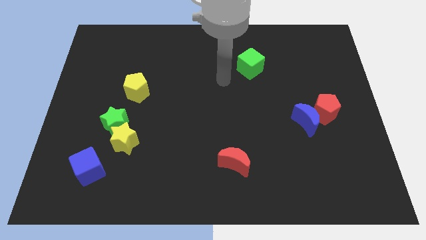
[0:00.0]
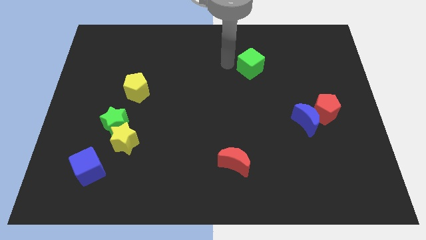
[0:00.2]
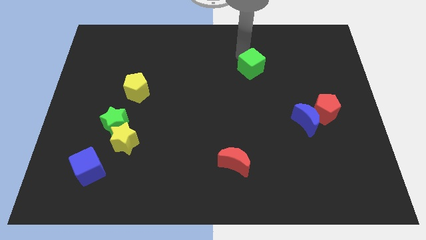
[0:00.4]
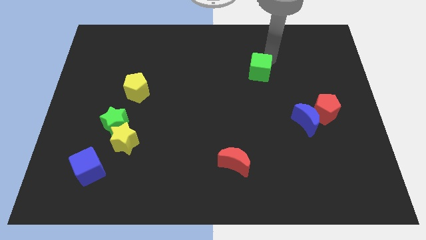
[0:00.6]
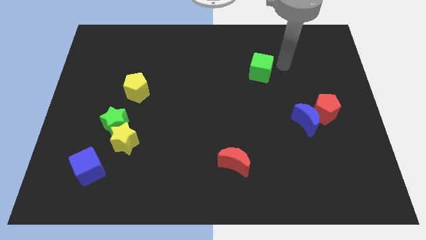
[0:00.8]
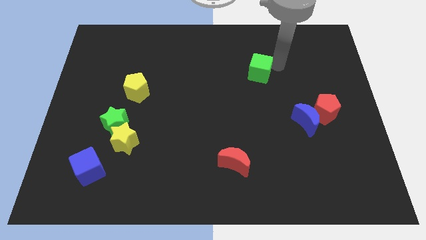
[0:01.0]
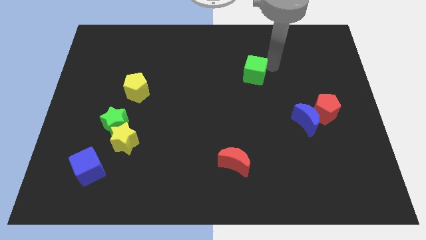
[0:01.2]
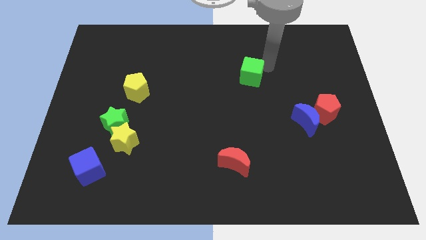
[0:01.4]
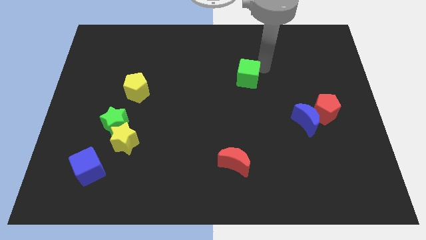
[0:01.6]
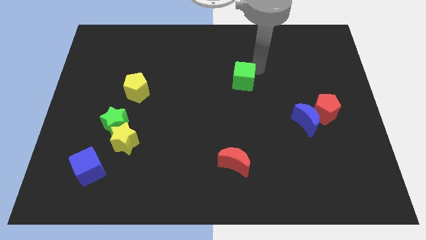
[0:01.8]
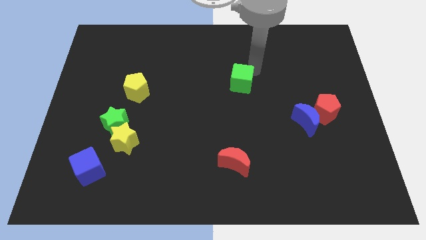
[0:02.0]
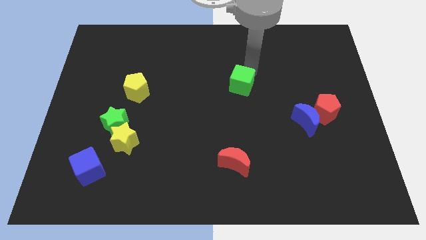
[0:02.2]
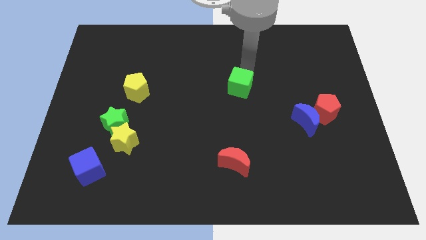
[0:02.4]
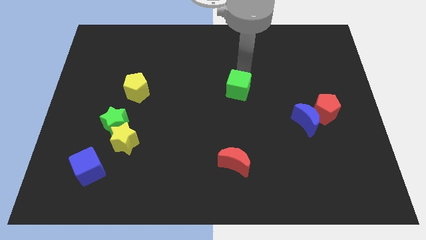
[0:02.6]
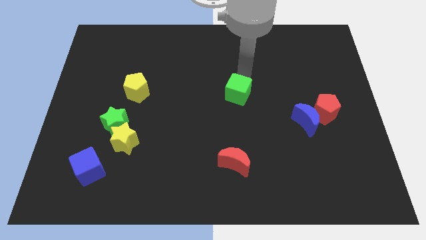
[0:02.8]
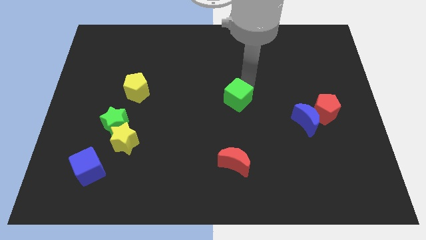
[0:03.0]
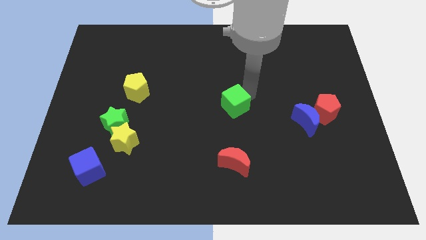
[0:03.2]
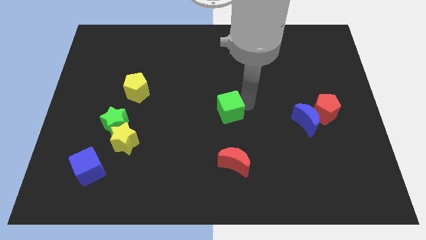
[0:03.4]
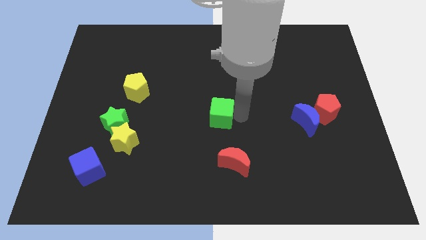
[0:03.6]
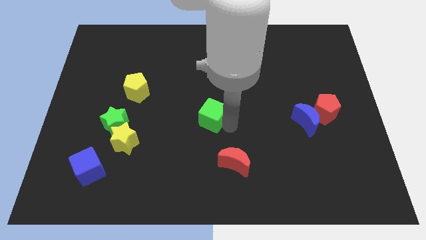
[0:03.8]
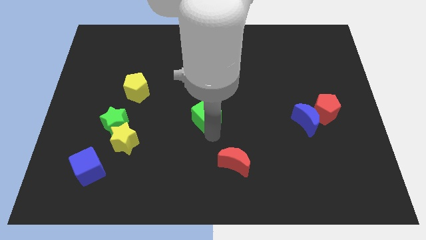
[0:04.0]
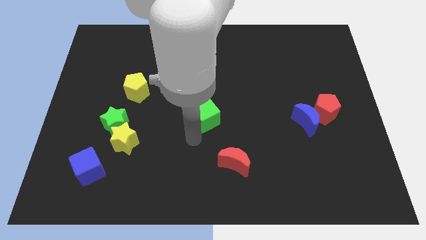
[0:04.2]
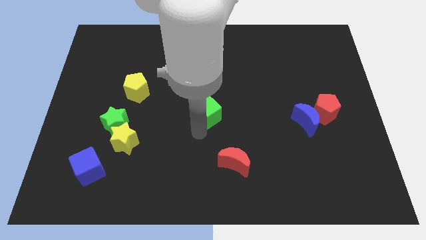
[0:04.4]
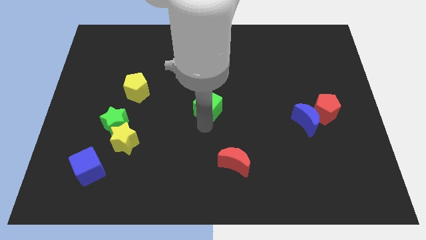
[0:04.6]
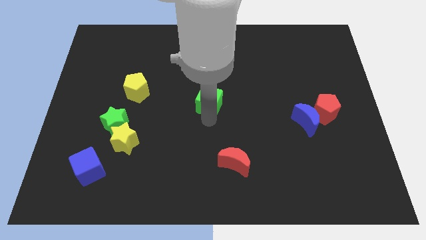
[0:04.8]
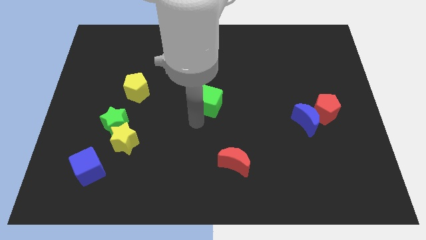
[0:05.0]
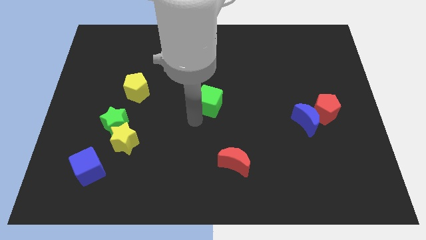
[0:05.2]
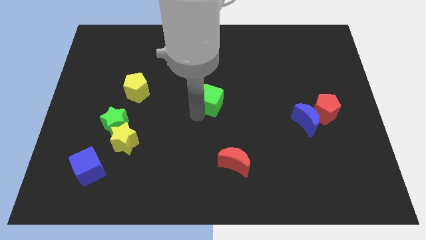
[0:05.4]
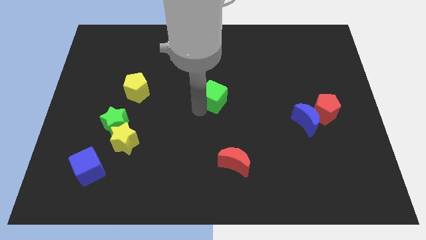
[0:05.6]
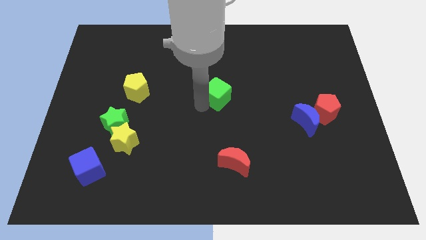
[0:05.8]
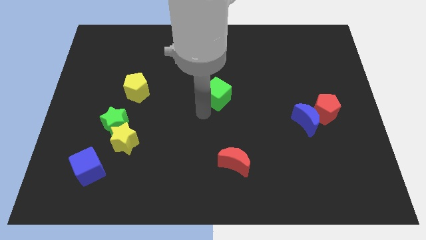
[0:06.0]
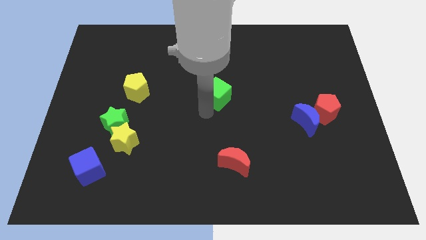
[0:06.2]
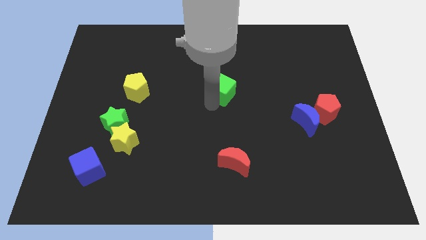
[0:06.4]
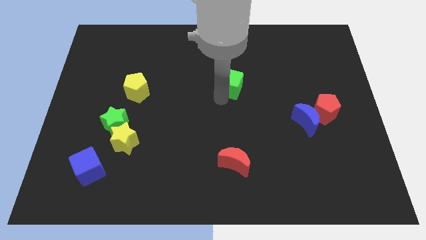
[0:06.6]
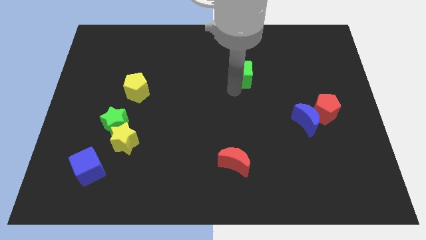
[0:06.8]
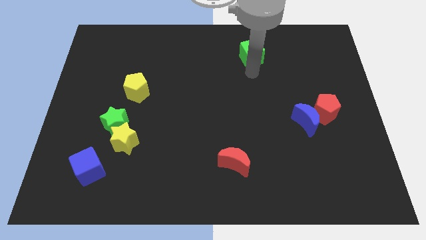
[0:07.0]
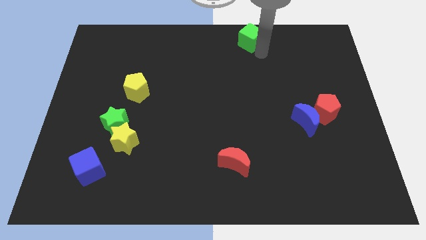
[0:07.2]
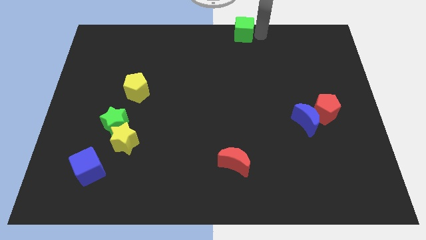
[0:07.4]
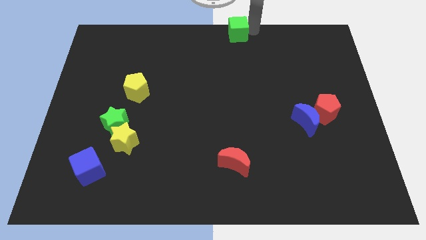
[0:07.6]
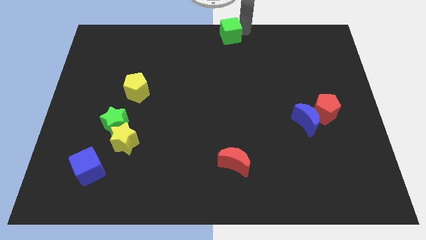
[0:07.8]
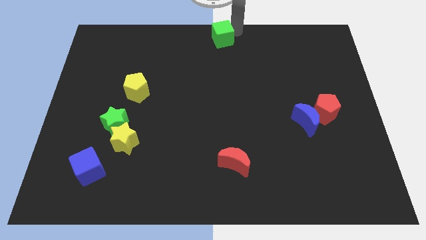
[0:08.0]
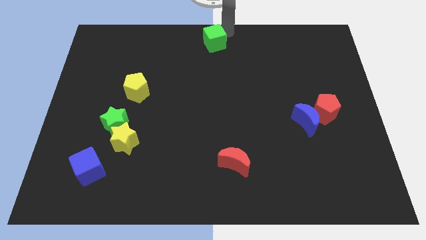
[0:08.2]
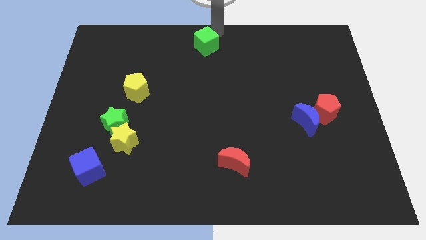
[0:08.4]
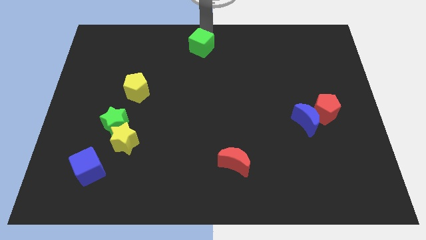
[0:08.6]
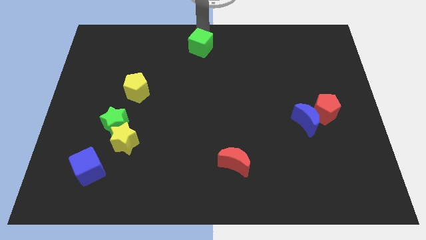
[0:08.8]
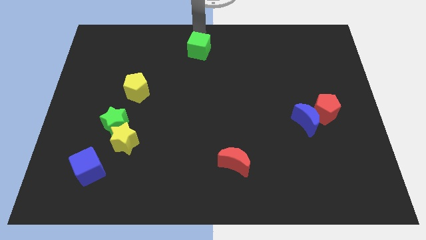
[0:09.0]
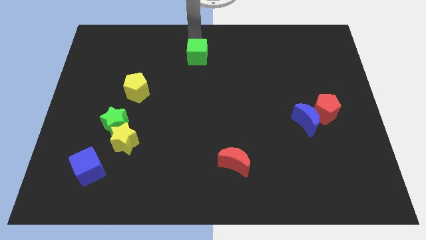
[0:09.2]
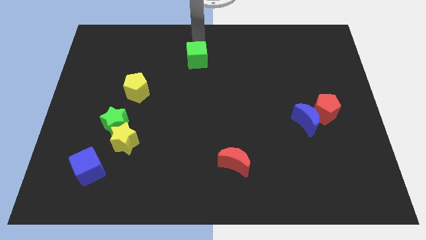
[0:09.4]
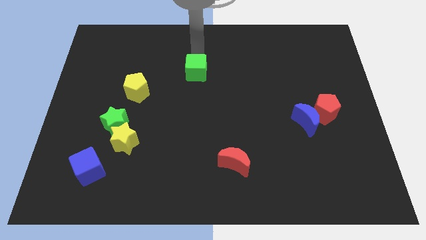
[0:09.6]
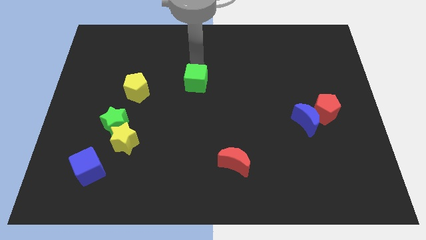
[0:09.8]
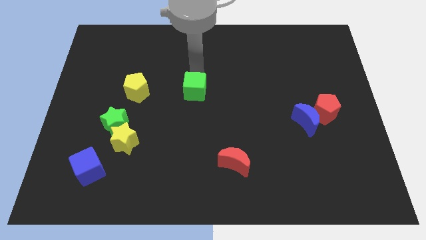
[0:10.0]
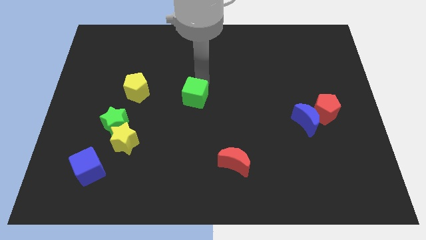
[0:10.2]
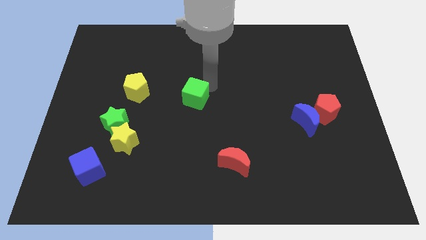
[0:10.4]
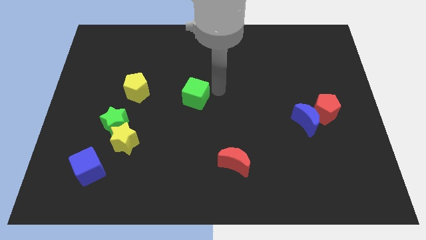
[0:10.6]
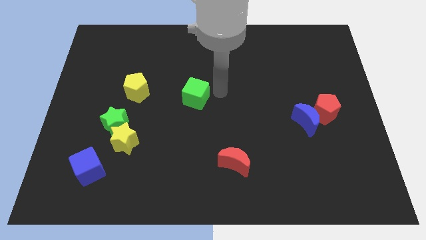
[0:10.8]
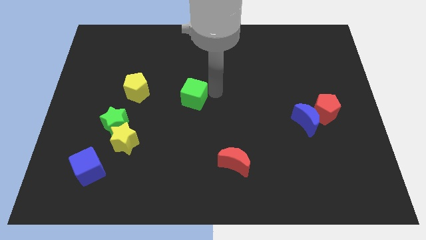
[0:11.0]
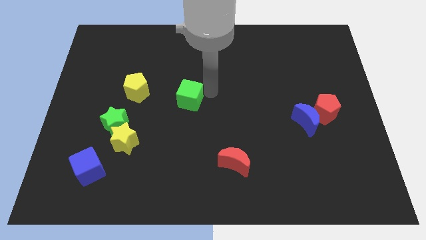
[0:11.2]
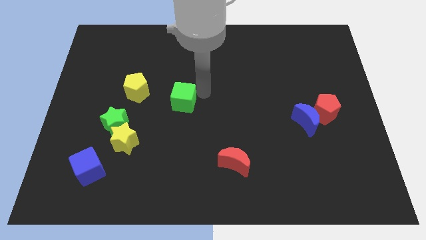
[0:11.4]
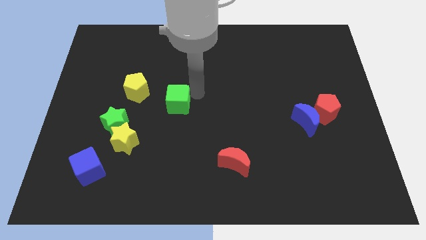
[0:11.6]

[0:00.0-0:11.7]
move the green cube to the bottom right side of the yellow pentagon

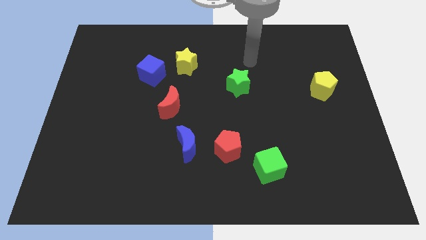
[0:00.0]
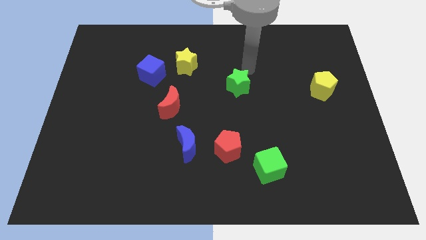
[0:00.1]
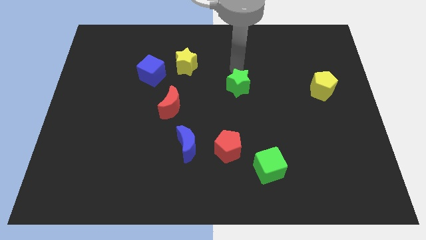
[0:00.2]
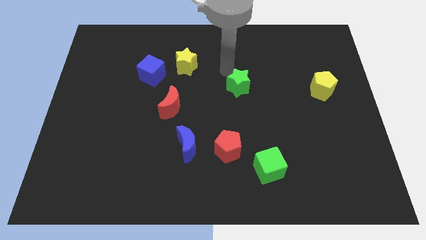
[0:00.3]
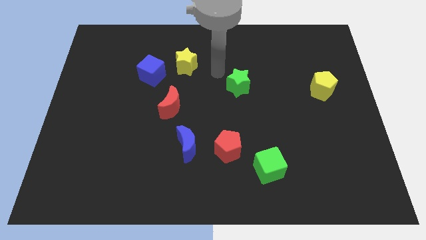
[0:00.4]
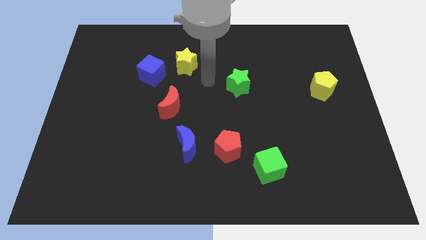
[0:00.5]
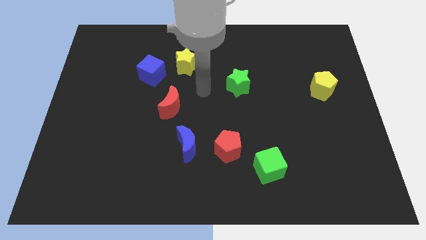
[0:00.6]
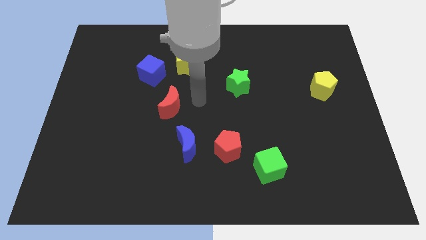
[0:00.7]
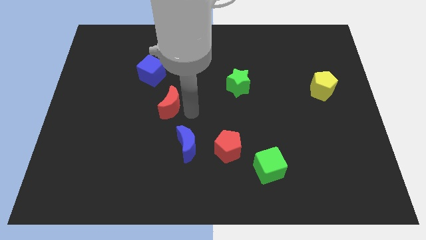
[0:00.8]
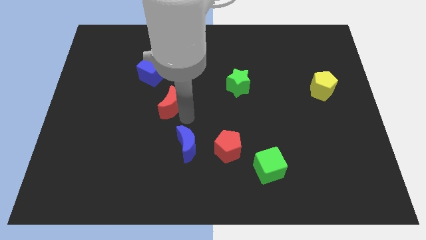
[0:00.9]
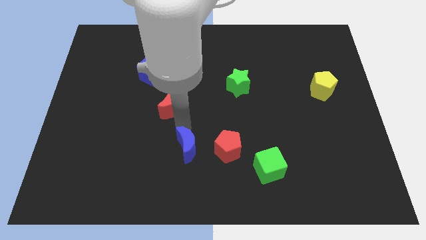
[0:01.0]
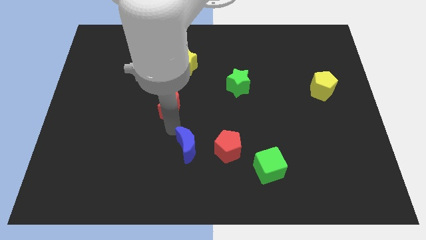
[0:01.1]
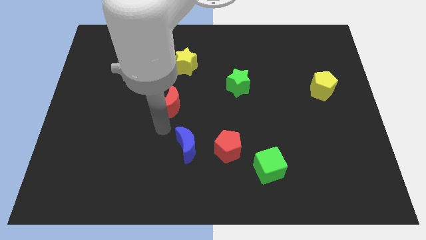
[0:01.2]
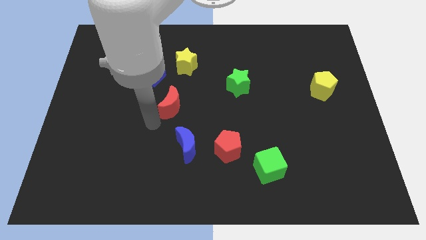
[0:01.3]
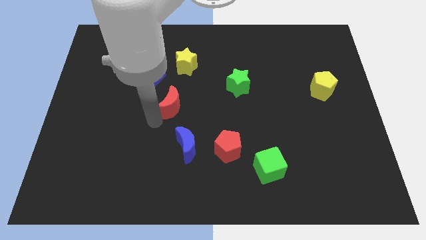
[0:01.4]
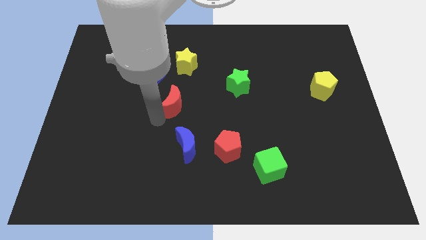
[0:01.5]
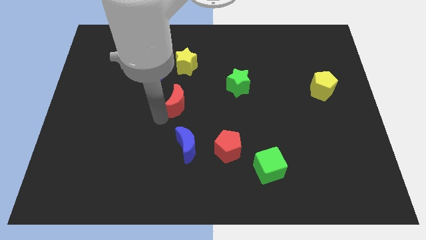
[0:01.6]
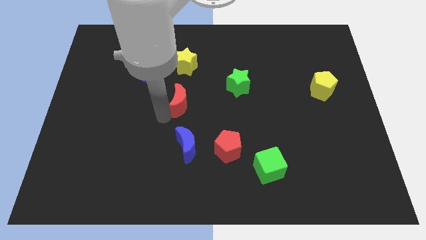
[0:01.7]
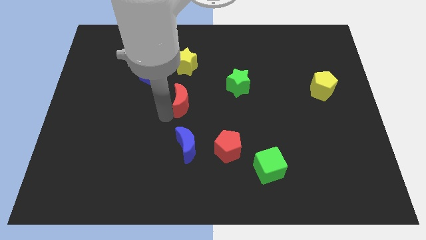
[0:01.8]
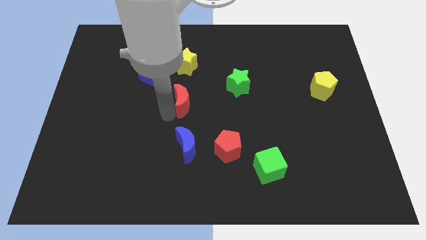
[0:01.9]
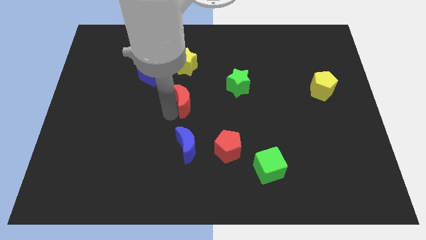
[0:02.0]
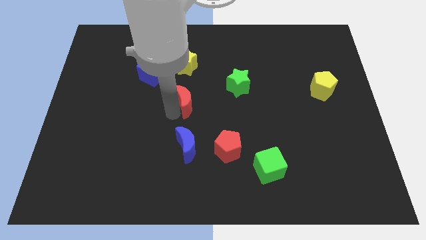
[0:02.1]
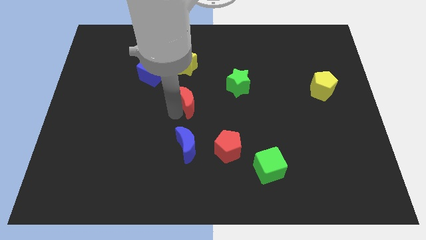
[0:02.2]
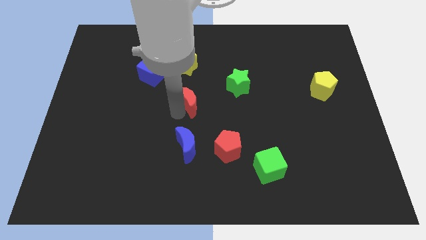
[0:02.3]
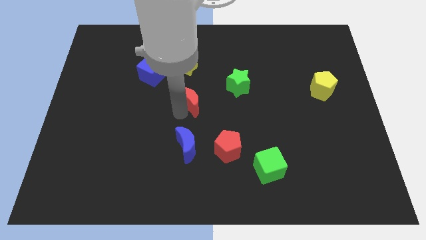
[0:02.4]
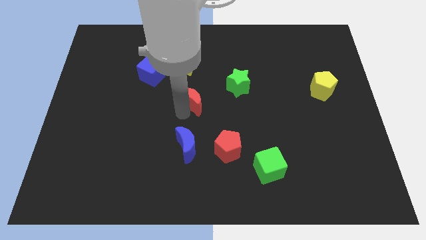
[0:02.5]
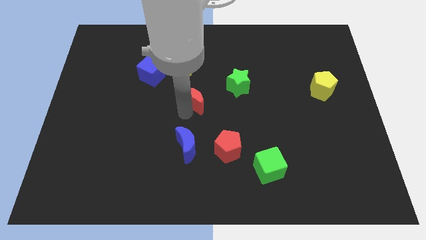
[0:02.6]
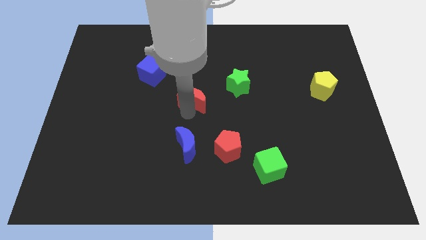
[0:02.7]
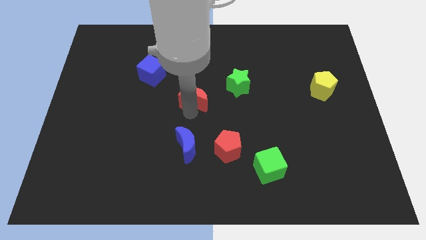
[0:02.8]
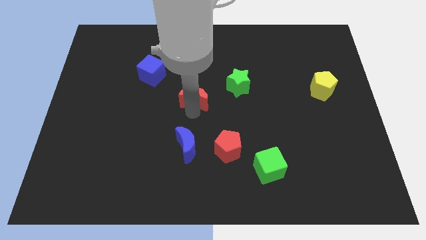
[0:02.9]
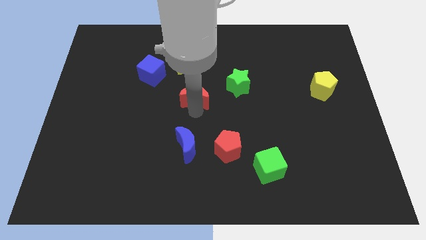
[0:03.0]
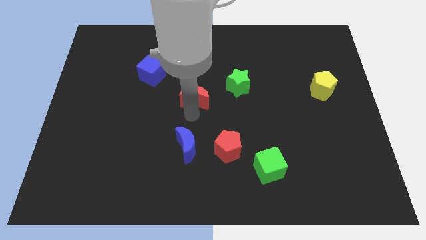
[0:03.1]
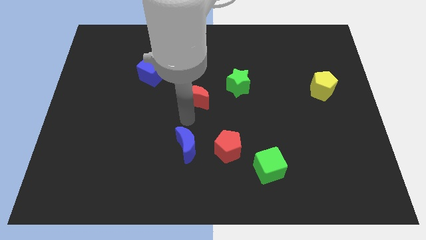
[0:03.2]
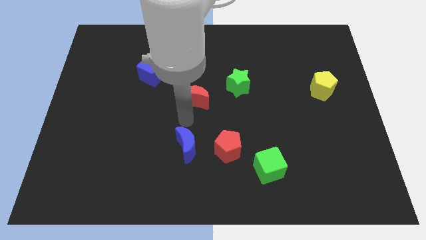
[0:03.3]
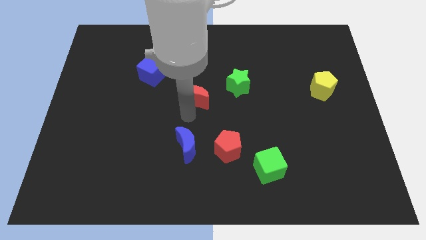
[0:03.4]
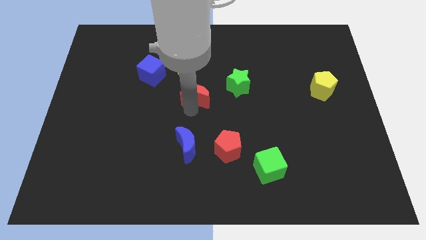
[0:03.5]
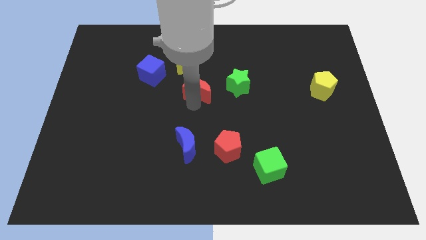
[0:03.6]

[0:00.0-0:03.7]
put the red moon to the bottom right side of the yellow star
